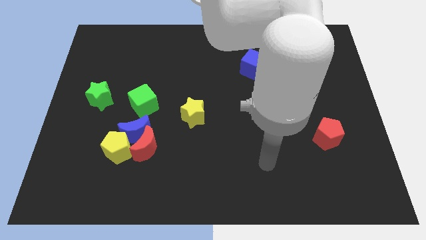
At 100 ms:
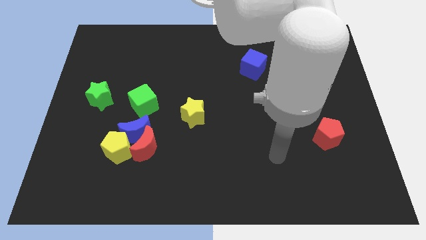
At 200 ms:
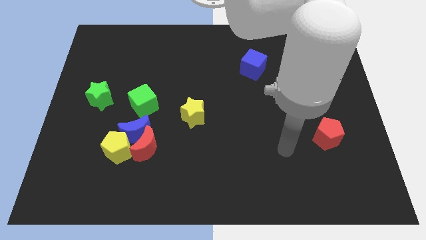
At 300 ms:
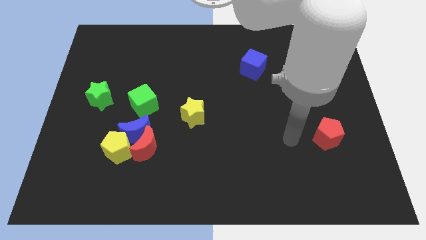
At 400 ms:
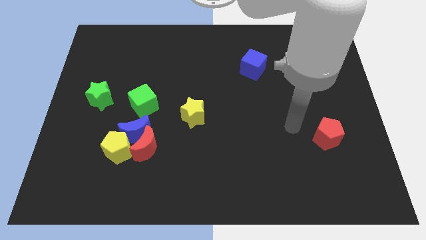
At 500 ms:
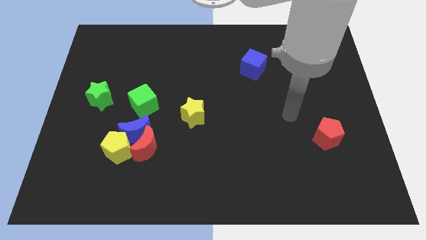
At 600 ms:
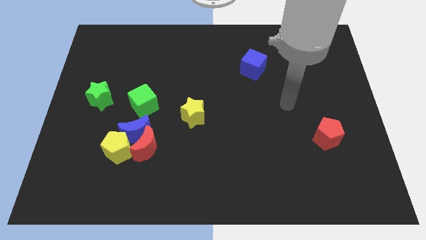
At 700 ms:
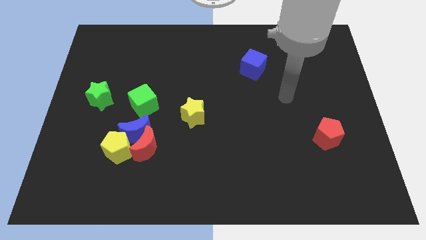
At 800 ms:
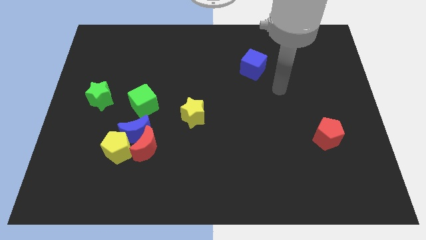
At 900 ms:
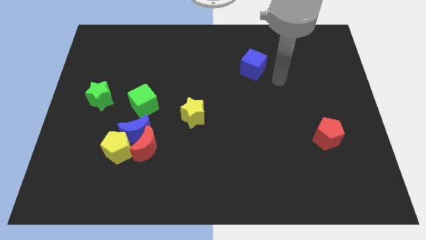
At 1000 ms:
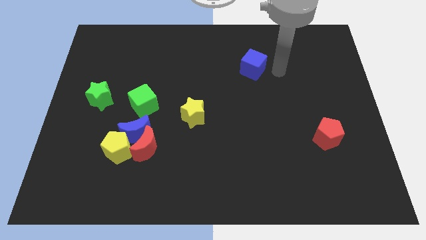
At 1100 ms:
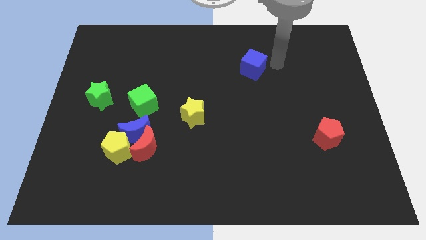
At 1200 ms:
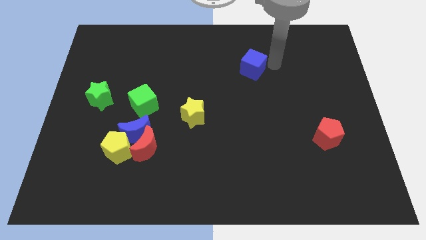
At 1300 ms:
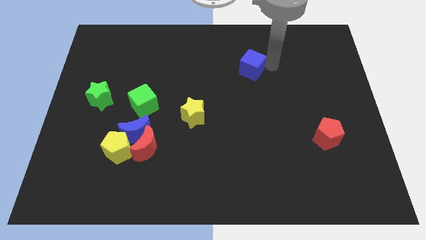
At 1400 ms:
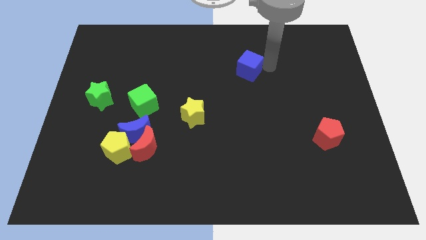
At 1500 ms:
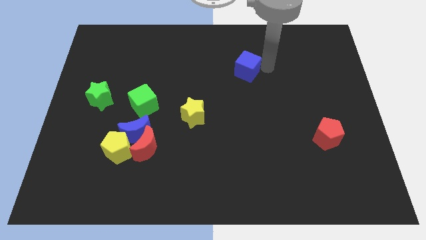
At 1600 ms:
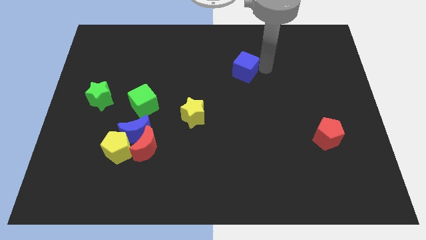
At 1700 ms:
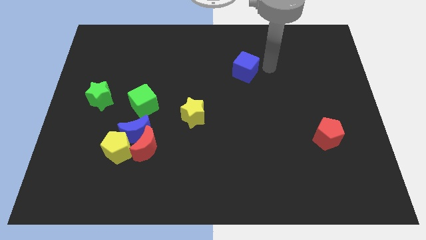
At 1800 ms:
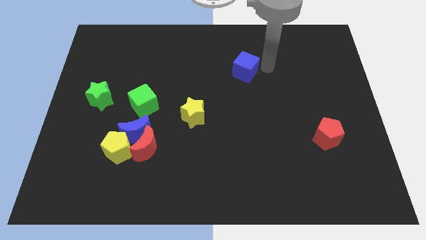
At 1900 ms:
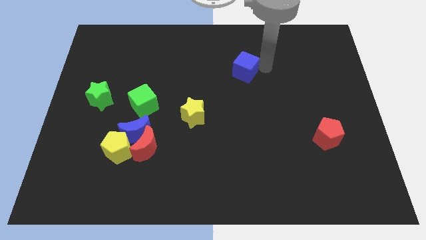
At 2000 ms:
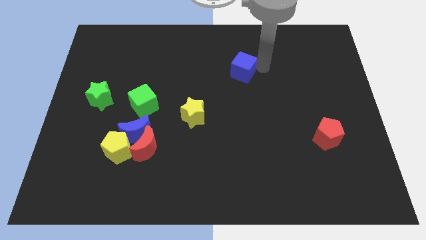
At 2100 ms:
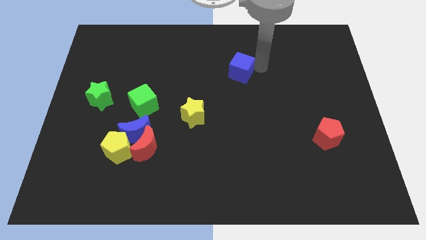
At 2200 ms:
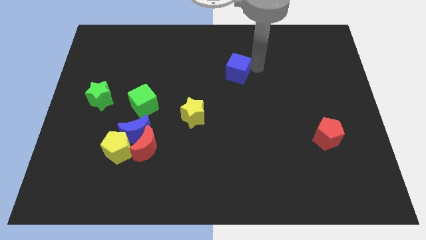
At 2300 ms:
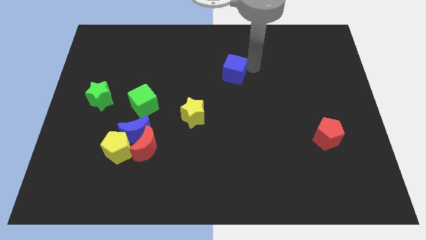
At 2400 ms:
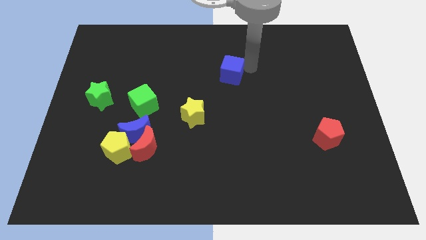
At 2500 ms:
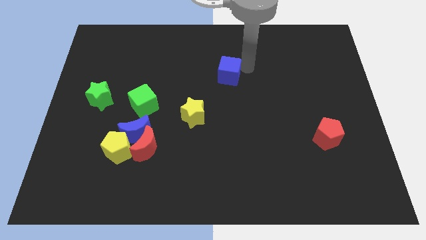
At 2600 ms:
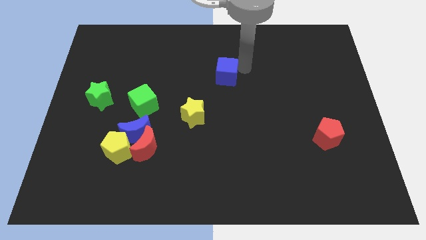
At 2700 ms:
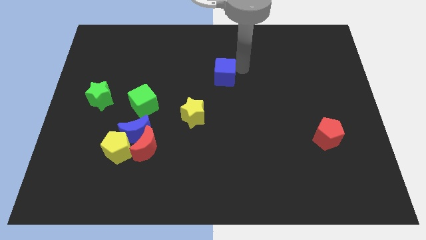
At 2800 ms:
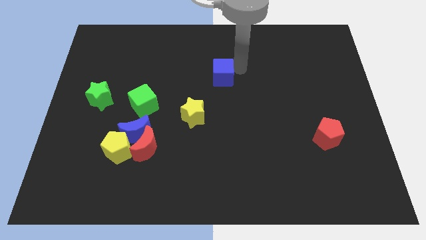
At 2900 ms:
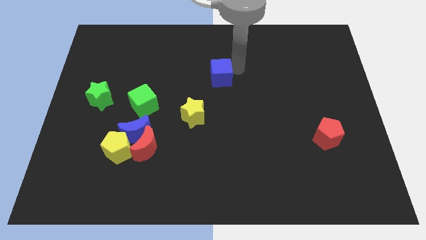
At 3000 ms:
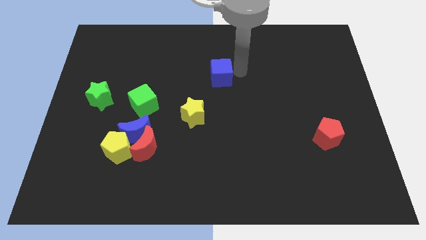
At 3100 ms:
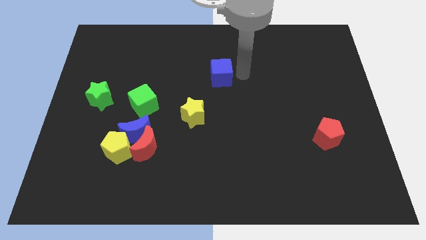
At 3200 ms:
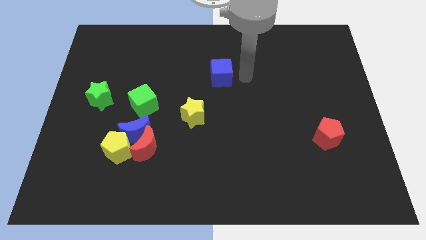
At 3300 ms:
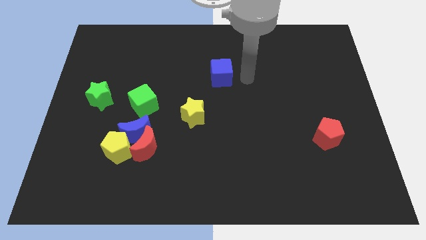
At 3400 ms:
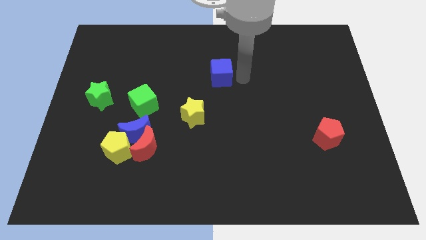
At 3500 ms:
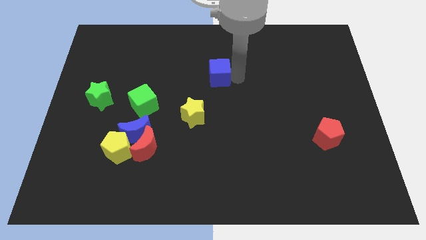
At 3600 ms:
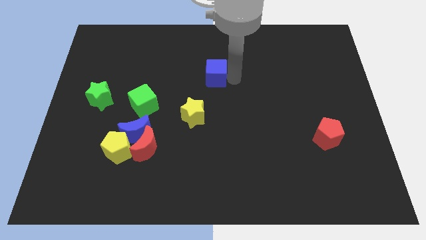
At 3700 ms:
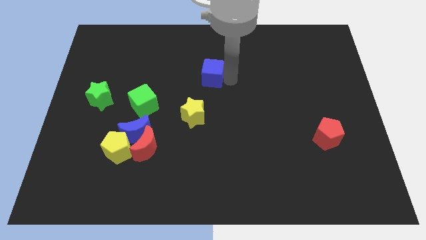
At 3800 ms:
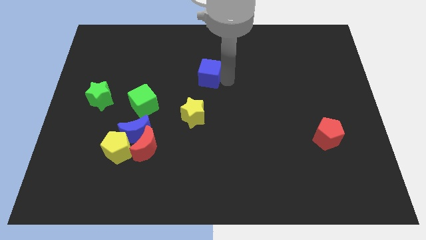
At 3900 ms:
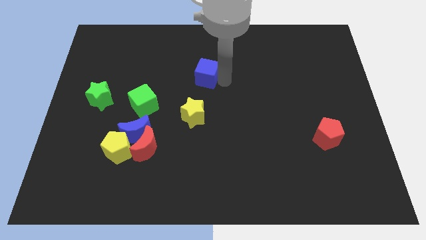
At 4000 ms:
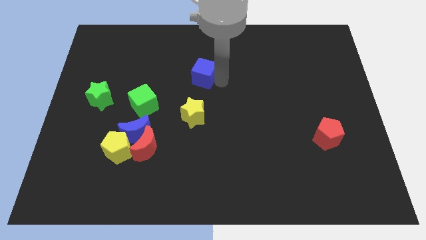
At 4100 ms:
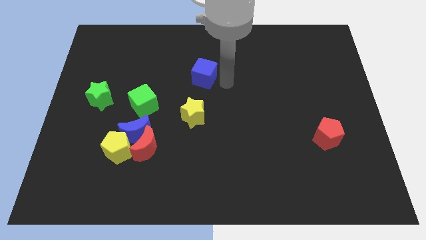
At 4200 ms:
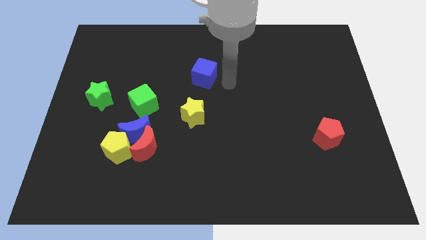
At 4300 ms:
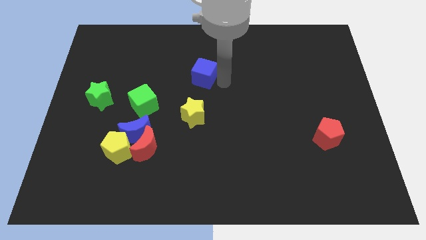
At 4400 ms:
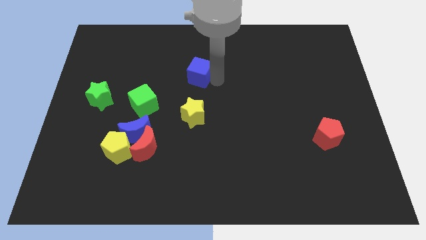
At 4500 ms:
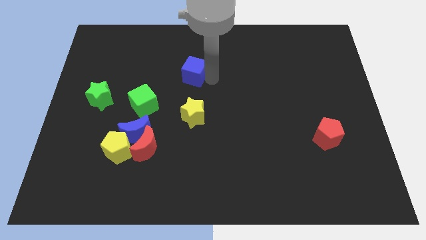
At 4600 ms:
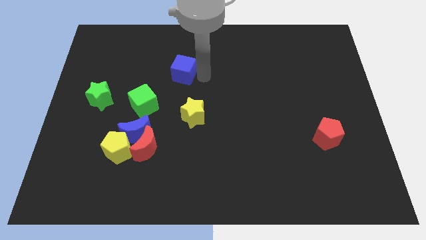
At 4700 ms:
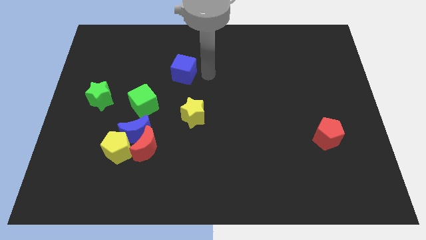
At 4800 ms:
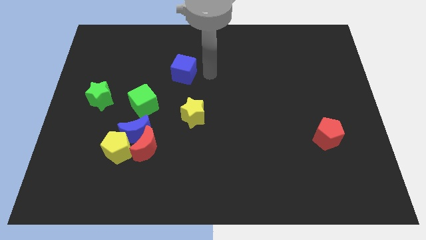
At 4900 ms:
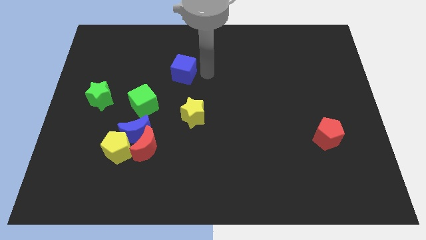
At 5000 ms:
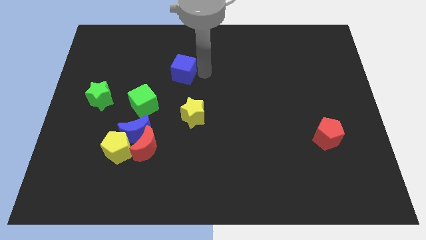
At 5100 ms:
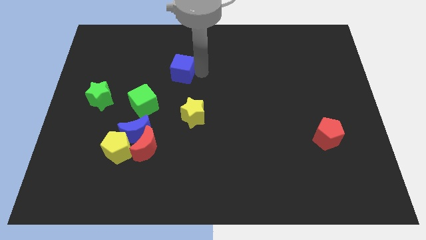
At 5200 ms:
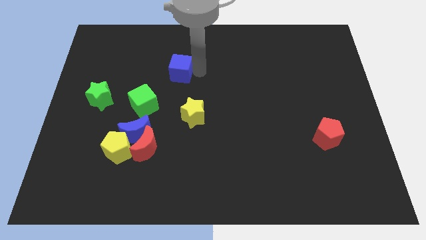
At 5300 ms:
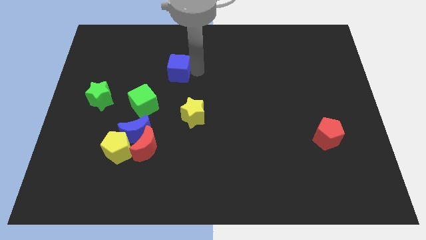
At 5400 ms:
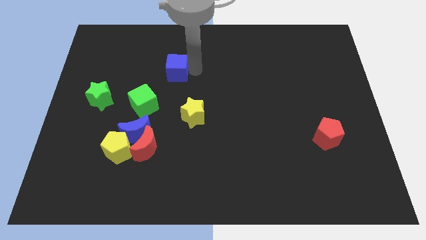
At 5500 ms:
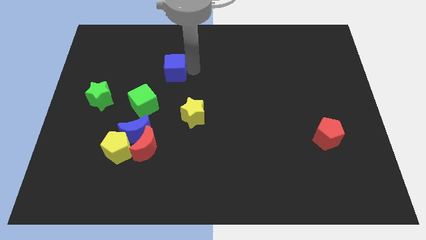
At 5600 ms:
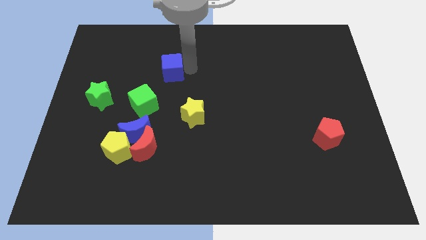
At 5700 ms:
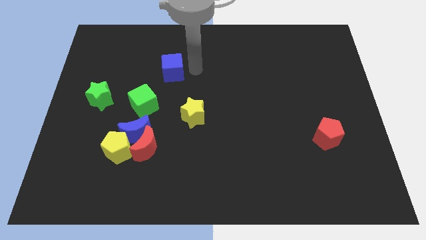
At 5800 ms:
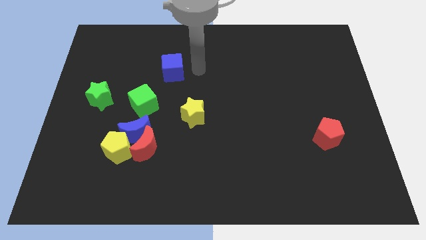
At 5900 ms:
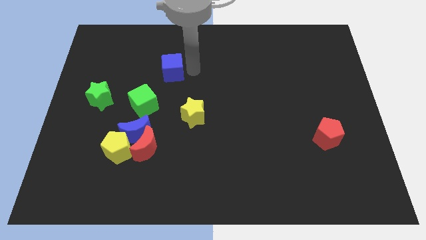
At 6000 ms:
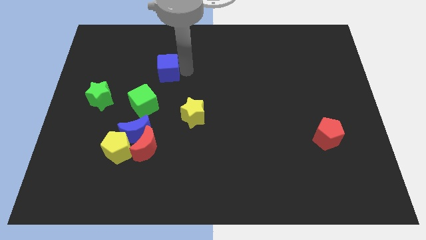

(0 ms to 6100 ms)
slide the blue cube above the green cube

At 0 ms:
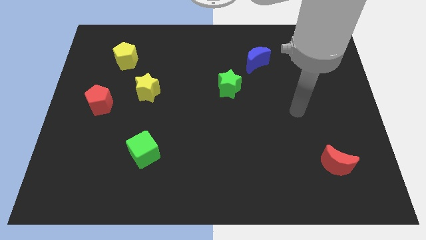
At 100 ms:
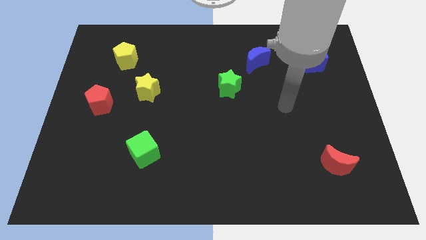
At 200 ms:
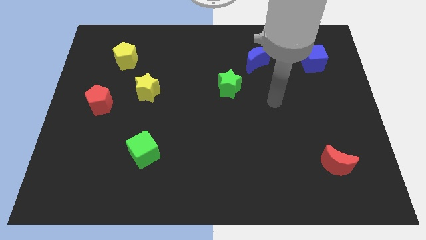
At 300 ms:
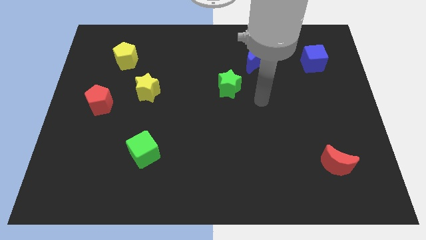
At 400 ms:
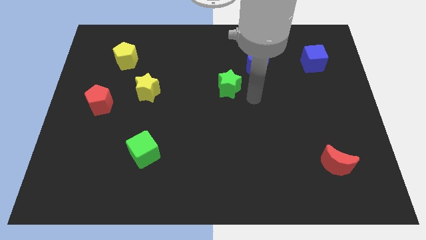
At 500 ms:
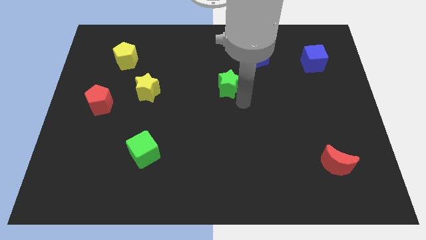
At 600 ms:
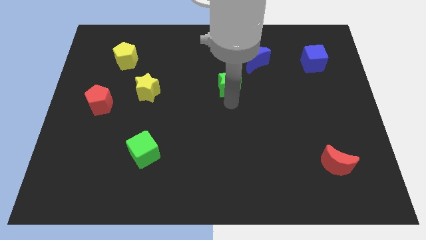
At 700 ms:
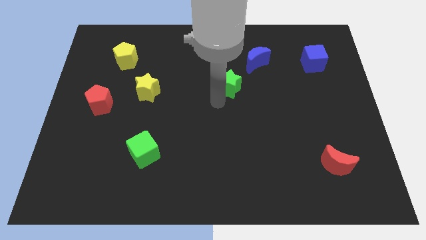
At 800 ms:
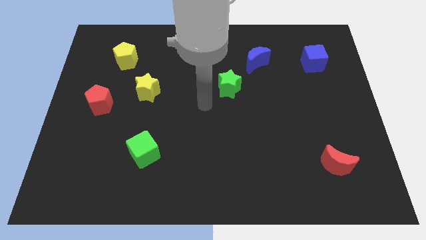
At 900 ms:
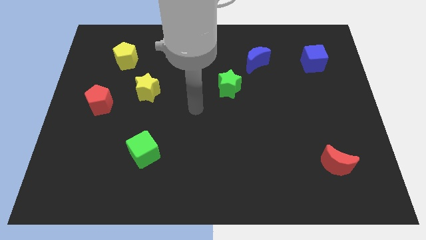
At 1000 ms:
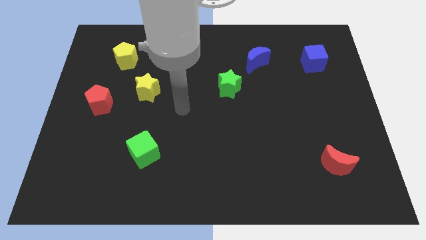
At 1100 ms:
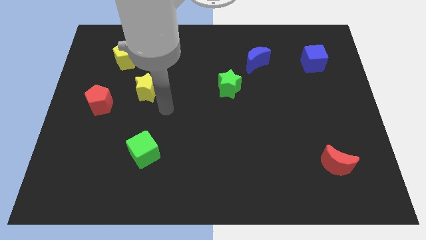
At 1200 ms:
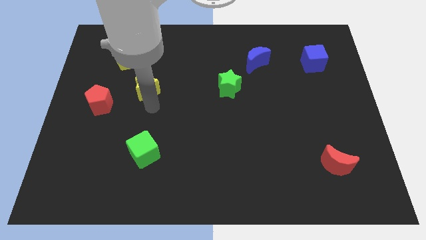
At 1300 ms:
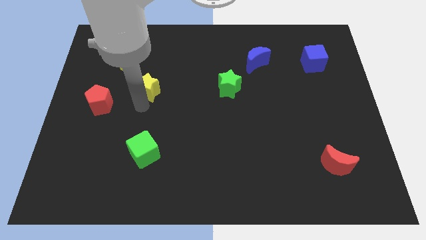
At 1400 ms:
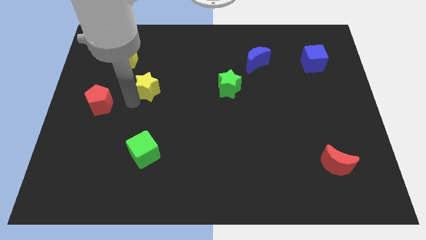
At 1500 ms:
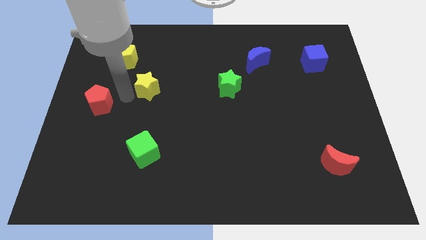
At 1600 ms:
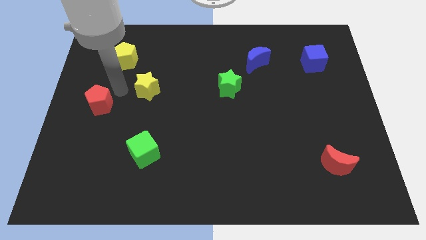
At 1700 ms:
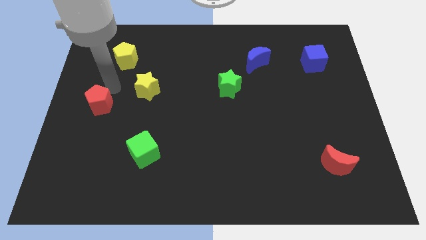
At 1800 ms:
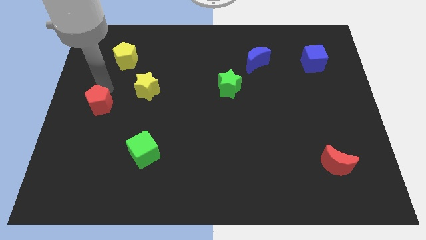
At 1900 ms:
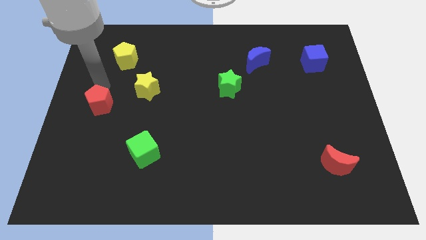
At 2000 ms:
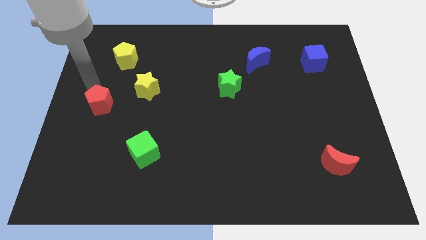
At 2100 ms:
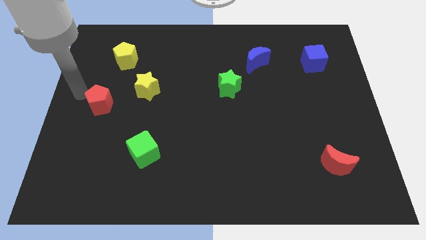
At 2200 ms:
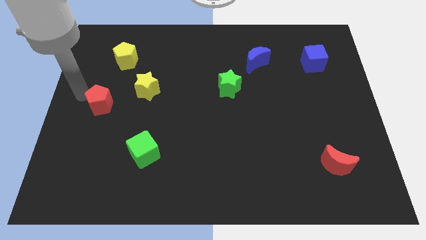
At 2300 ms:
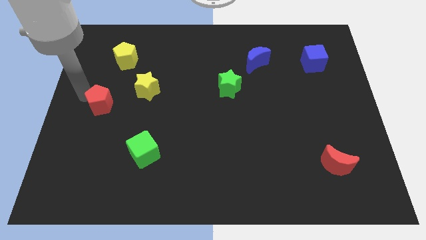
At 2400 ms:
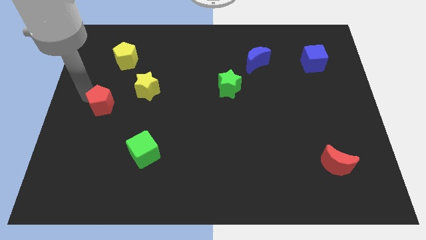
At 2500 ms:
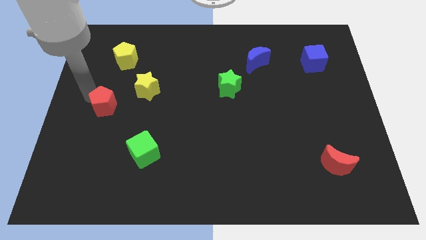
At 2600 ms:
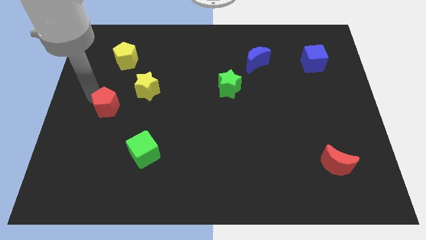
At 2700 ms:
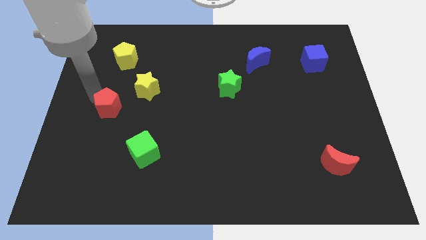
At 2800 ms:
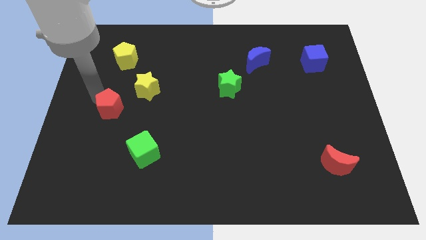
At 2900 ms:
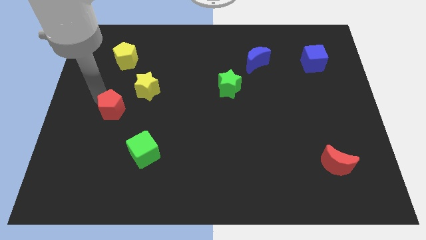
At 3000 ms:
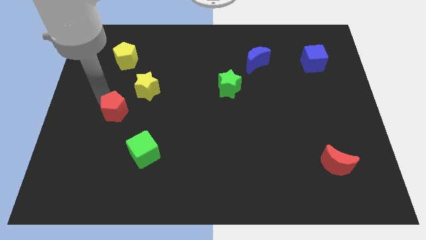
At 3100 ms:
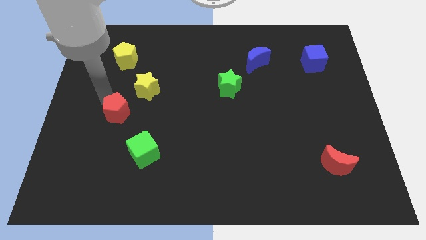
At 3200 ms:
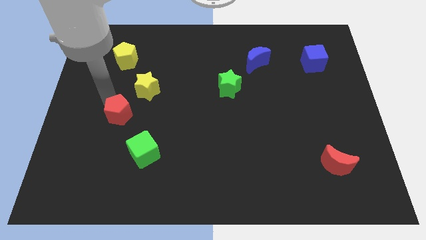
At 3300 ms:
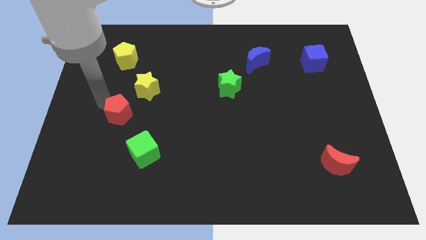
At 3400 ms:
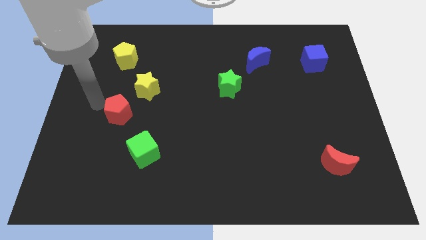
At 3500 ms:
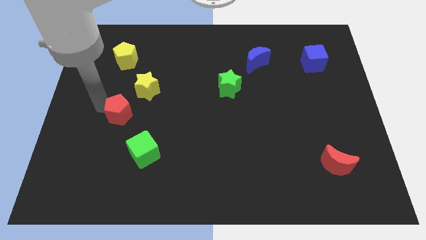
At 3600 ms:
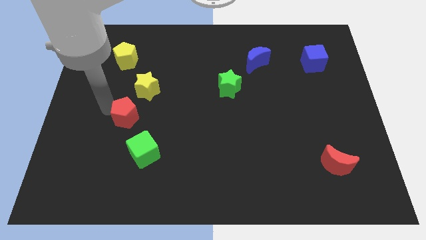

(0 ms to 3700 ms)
push the red pentagon below the yellow star
